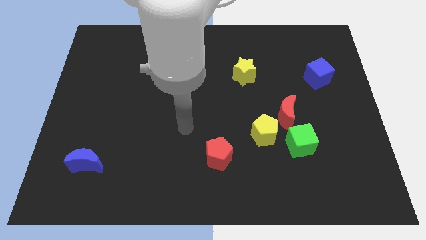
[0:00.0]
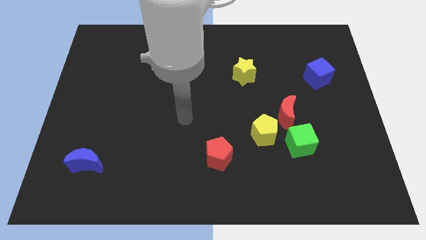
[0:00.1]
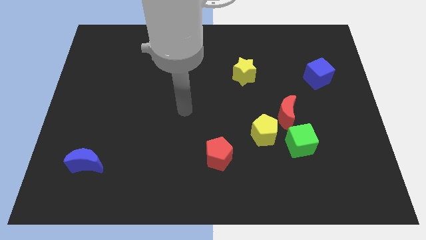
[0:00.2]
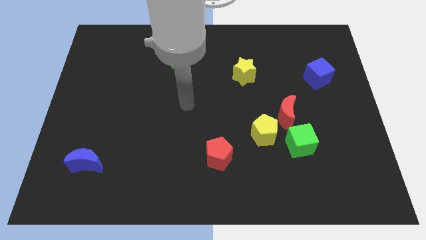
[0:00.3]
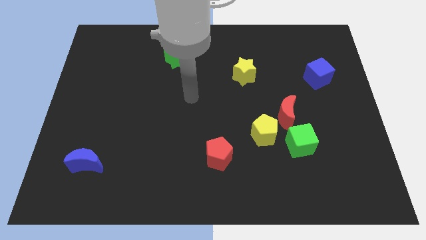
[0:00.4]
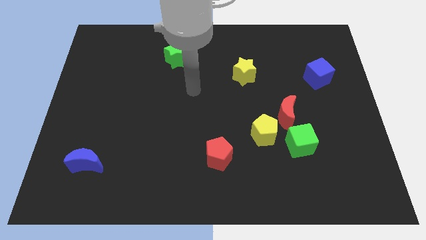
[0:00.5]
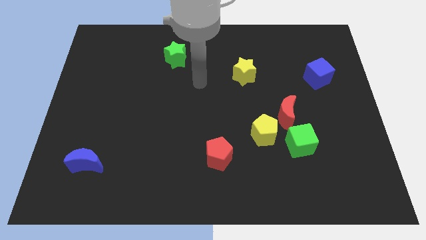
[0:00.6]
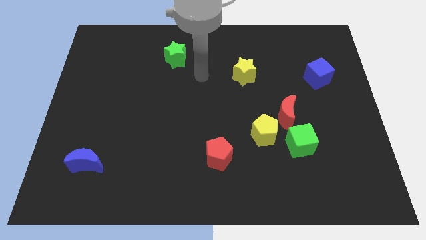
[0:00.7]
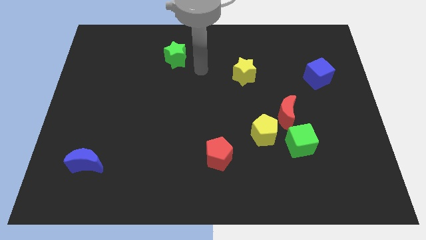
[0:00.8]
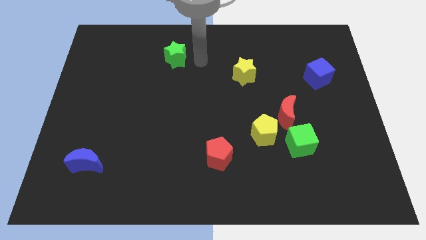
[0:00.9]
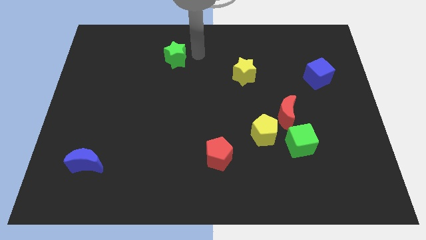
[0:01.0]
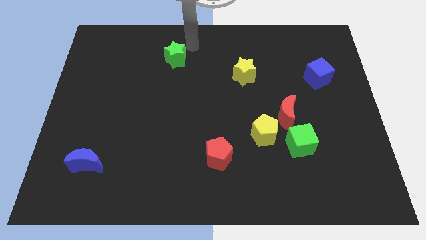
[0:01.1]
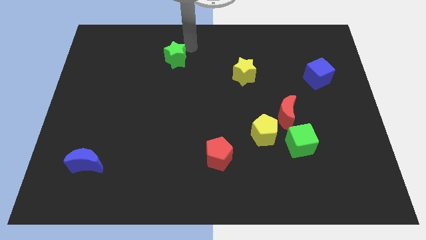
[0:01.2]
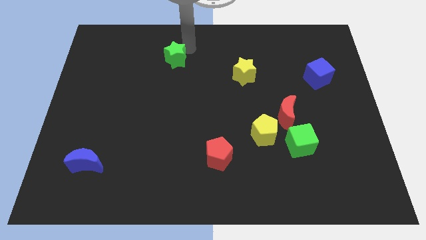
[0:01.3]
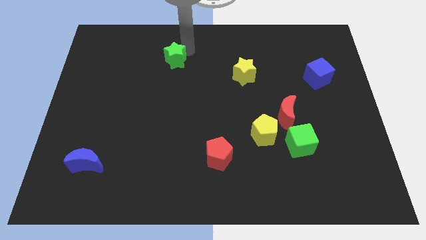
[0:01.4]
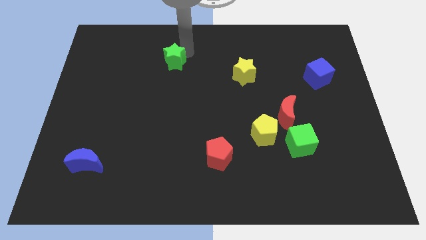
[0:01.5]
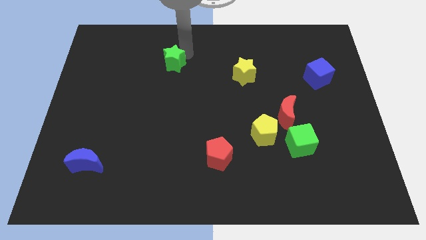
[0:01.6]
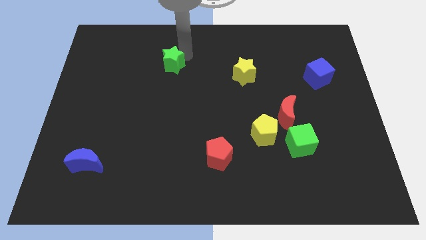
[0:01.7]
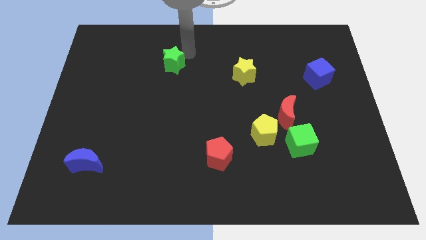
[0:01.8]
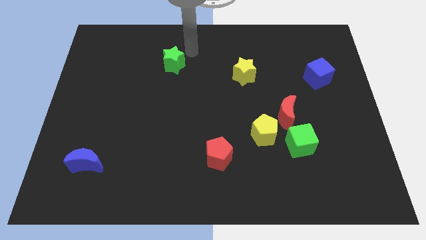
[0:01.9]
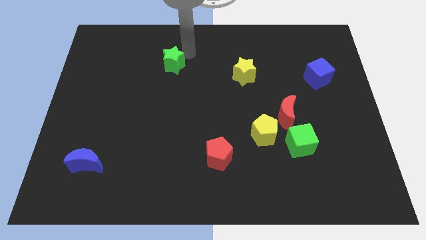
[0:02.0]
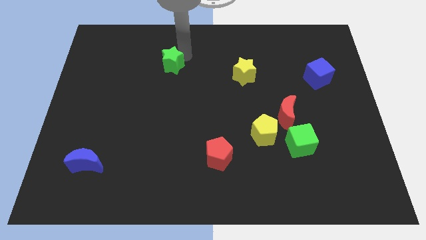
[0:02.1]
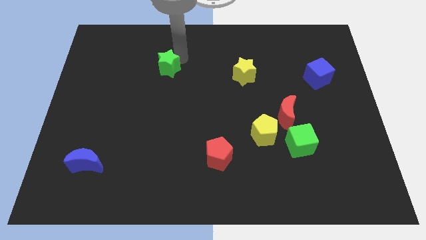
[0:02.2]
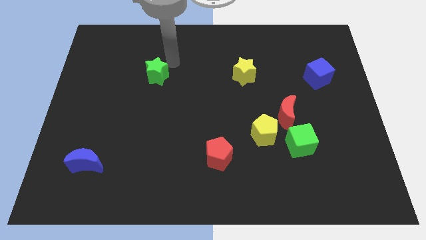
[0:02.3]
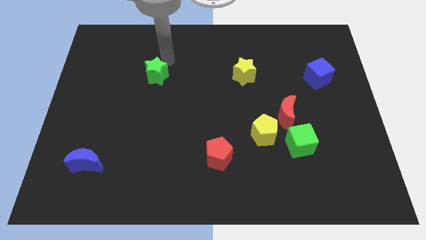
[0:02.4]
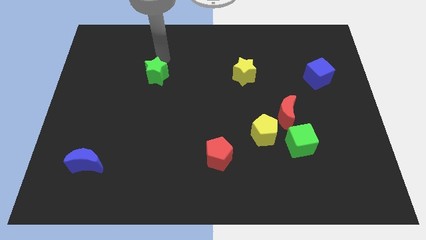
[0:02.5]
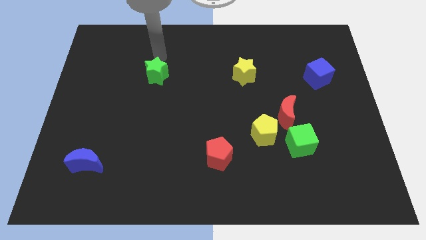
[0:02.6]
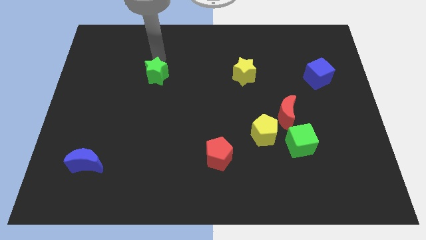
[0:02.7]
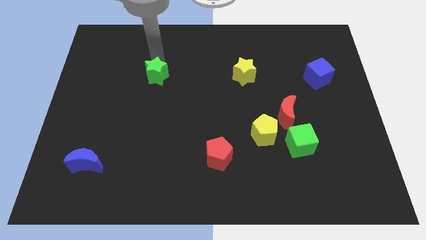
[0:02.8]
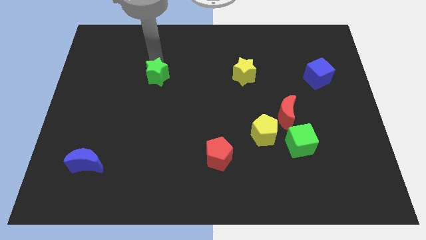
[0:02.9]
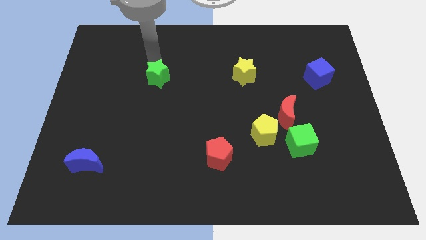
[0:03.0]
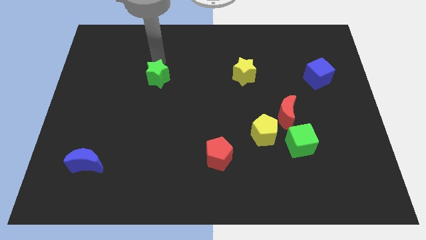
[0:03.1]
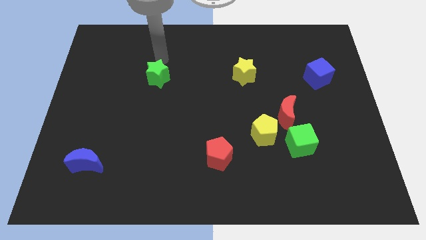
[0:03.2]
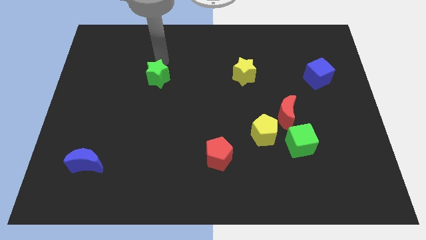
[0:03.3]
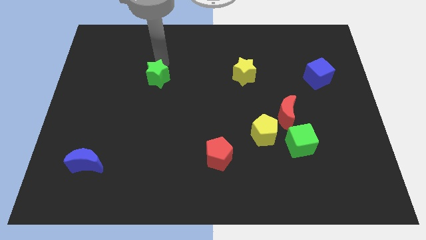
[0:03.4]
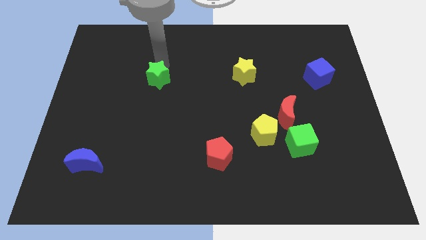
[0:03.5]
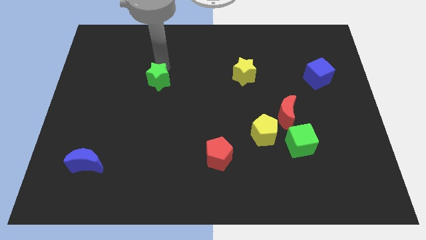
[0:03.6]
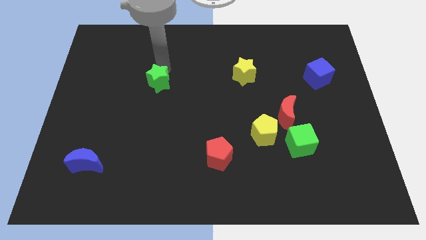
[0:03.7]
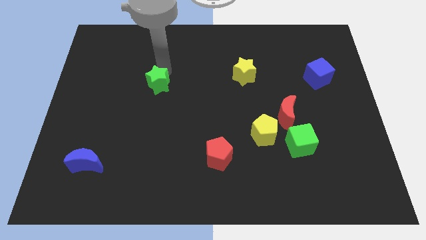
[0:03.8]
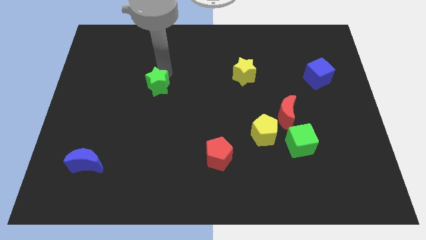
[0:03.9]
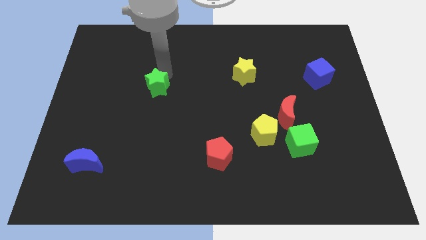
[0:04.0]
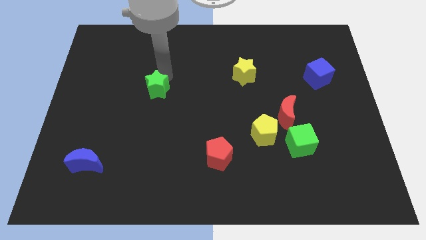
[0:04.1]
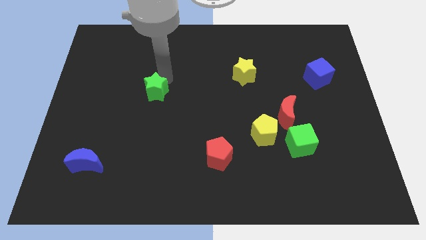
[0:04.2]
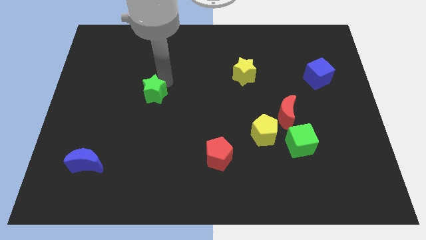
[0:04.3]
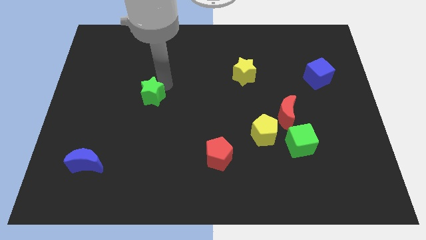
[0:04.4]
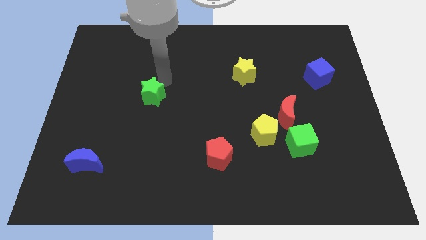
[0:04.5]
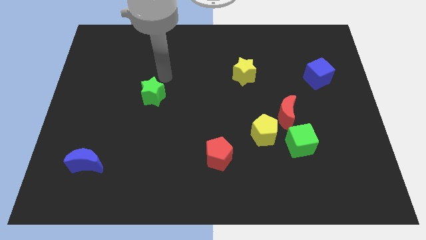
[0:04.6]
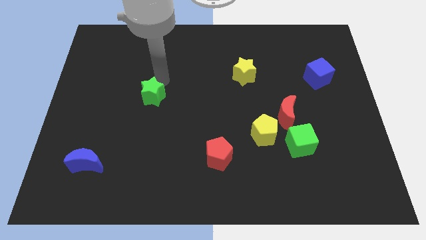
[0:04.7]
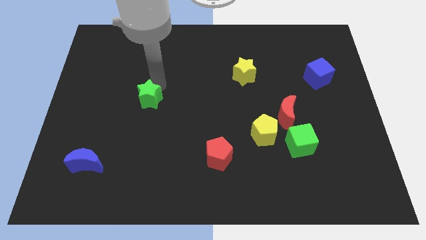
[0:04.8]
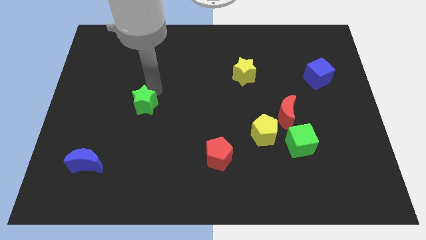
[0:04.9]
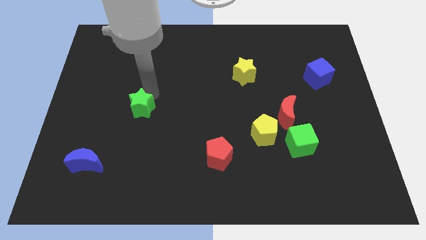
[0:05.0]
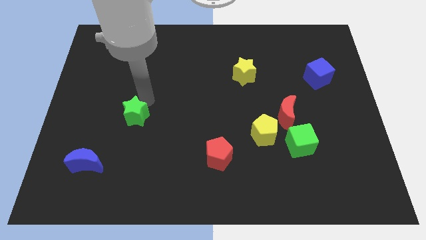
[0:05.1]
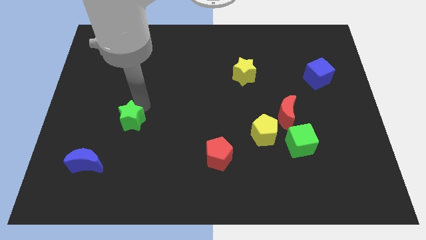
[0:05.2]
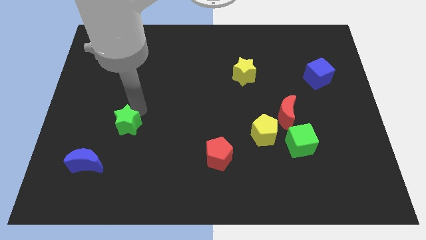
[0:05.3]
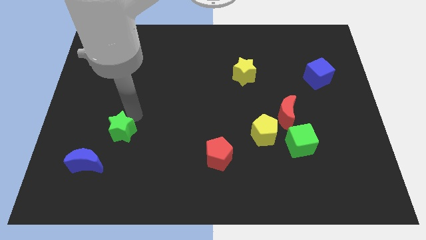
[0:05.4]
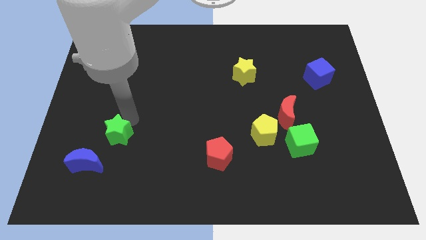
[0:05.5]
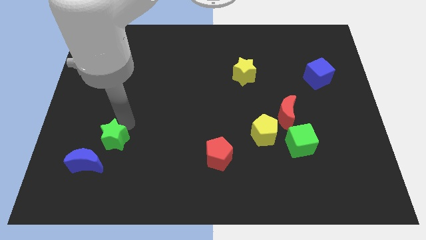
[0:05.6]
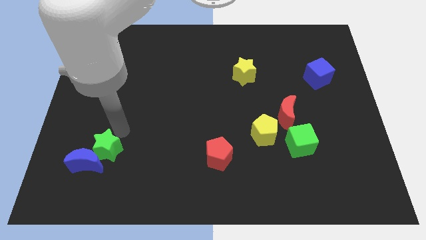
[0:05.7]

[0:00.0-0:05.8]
slide the green star next to the blue moon
